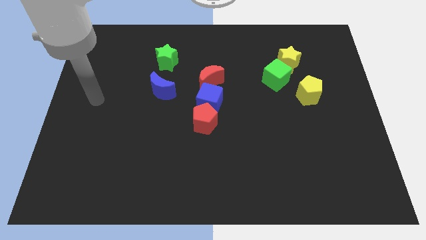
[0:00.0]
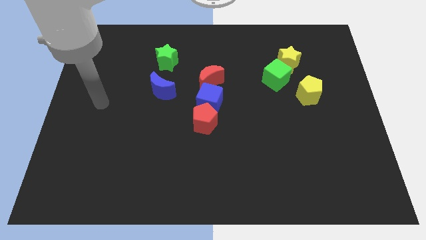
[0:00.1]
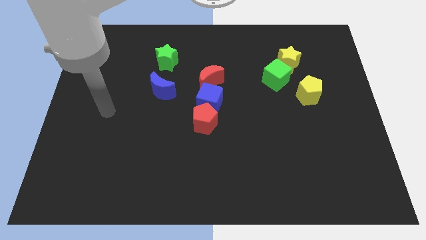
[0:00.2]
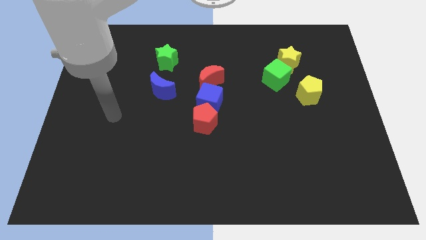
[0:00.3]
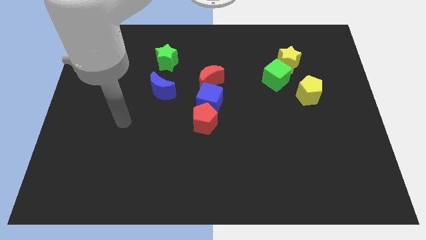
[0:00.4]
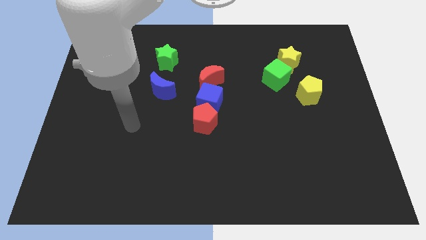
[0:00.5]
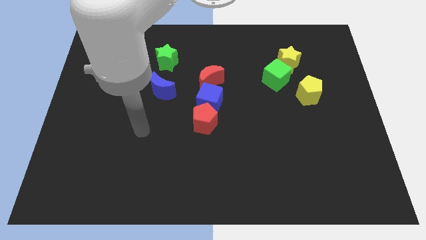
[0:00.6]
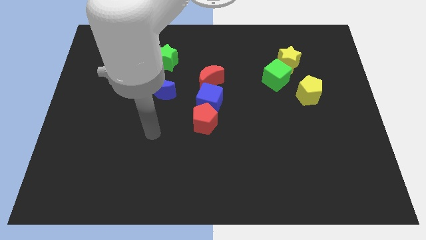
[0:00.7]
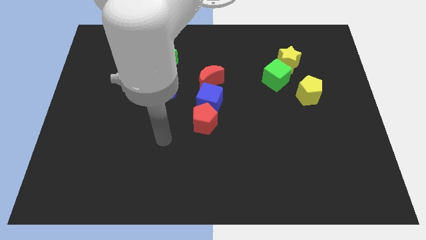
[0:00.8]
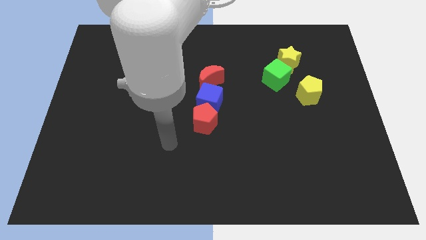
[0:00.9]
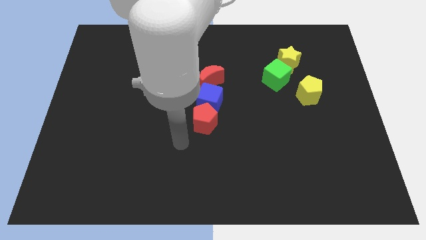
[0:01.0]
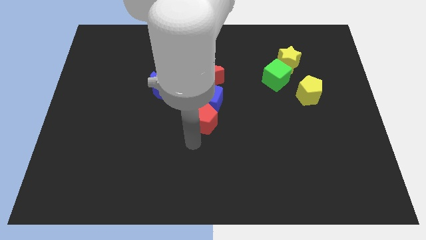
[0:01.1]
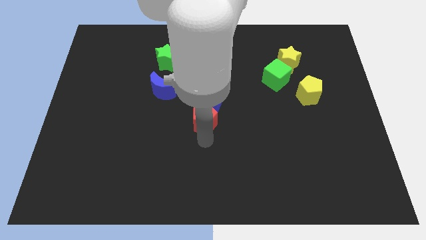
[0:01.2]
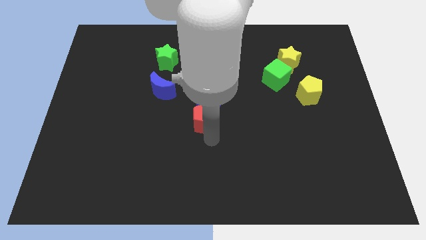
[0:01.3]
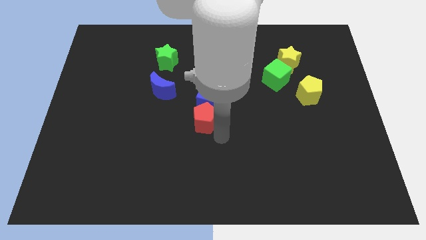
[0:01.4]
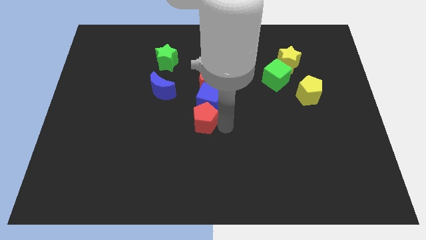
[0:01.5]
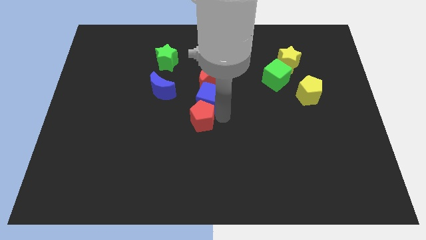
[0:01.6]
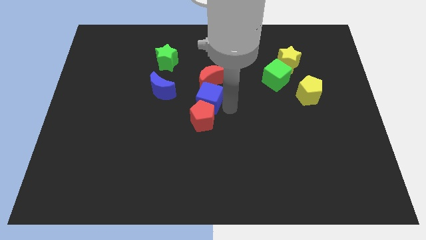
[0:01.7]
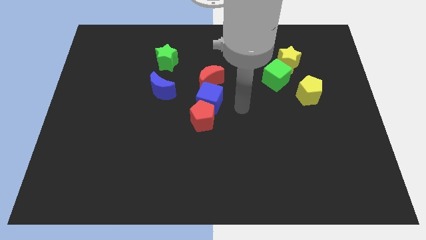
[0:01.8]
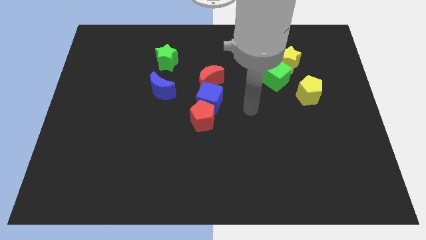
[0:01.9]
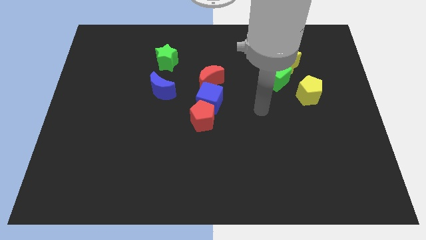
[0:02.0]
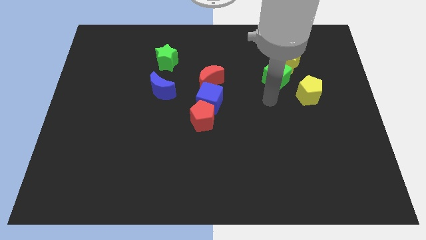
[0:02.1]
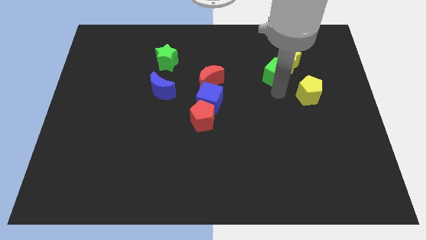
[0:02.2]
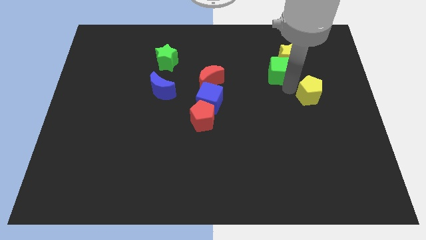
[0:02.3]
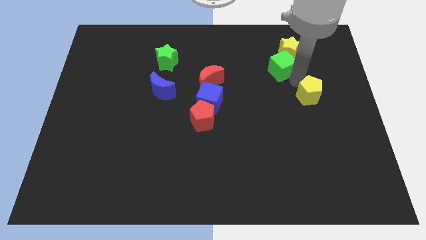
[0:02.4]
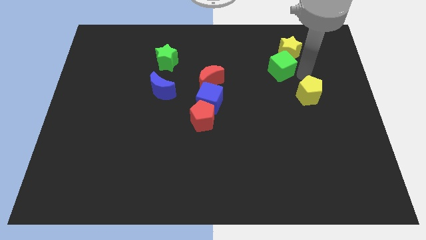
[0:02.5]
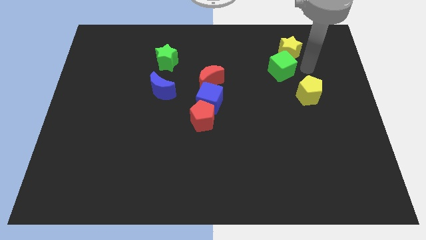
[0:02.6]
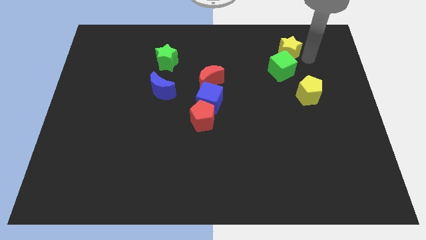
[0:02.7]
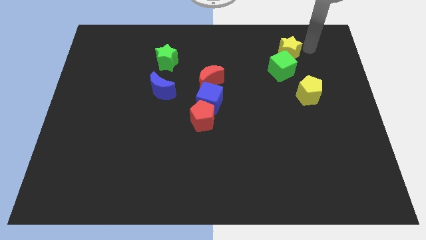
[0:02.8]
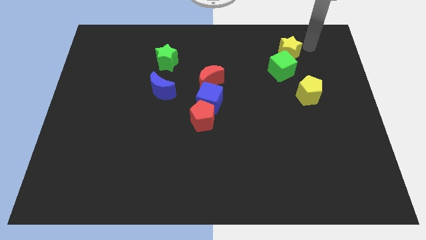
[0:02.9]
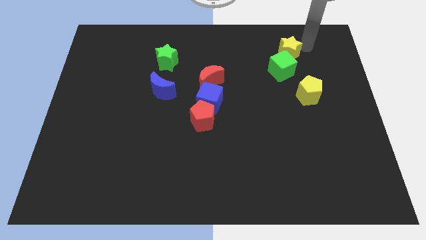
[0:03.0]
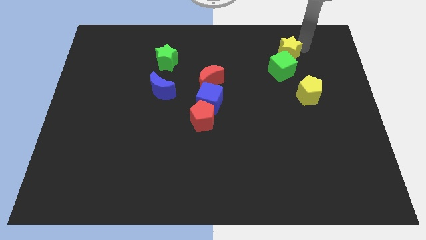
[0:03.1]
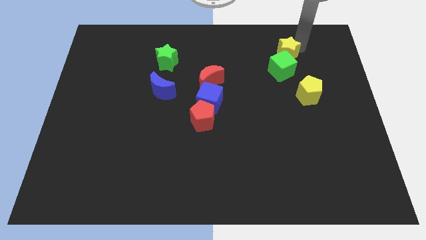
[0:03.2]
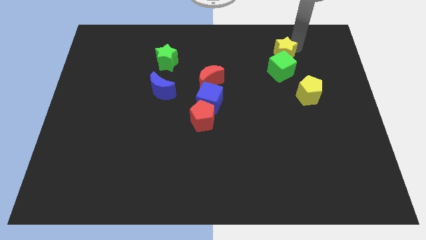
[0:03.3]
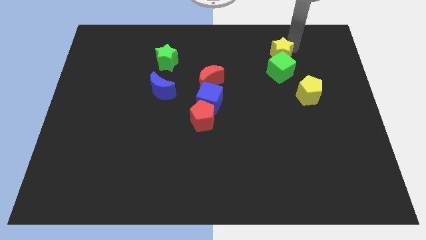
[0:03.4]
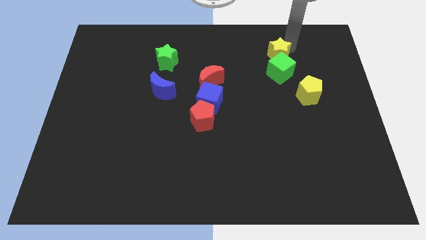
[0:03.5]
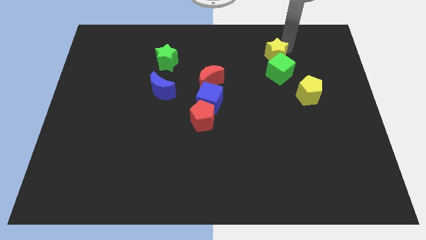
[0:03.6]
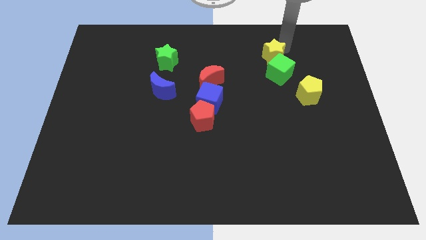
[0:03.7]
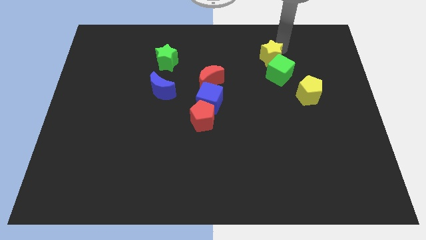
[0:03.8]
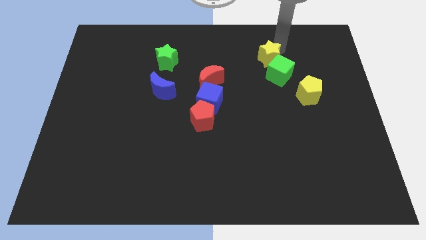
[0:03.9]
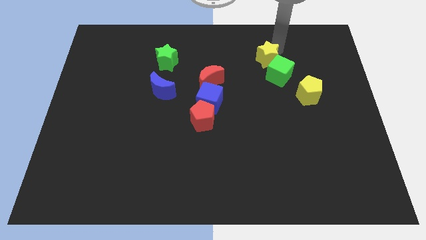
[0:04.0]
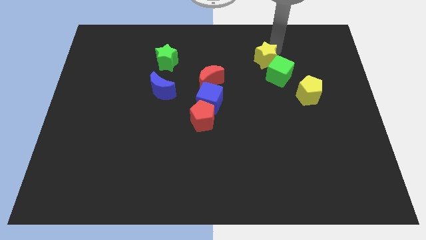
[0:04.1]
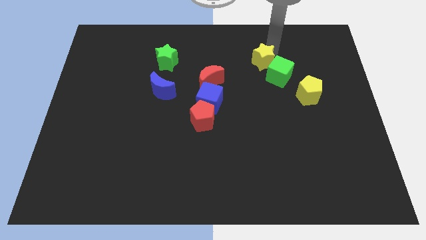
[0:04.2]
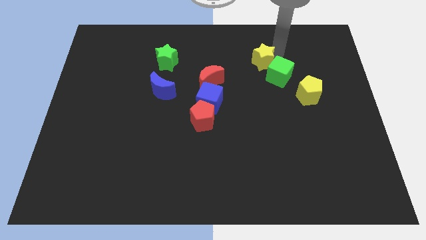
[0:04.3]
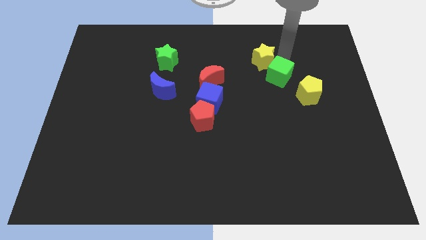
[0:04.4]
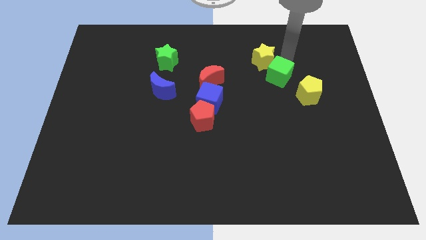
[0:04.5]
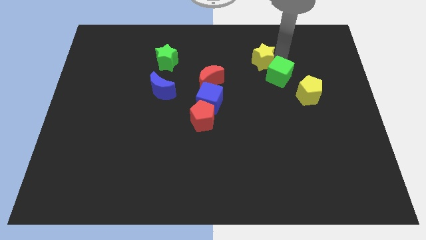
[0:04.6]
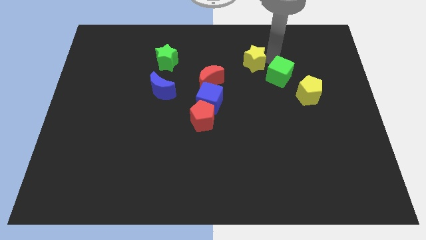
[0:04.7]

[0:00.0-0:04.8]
slightly slide the yellow star to the left

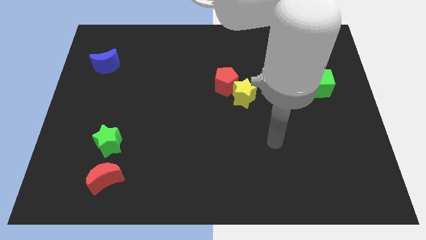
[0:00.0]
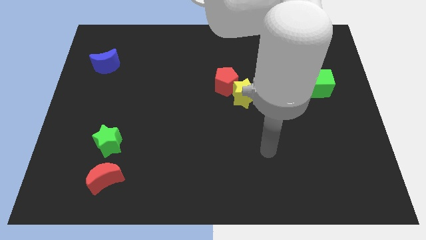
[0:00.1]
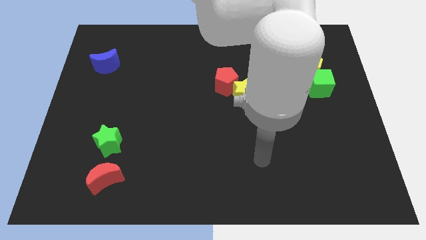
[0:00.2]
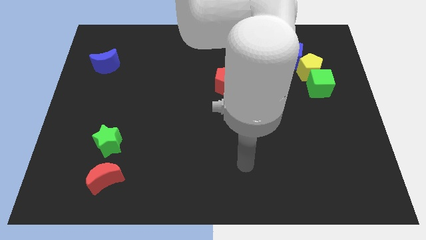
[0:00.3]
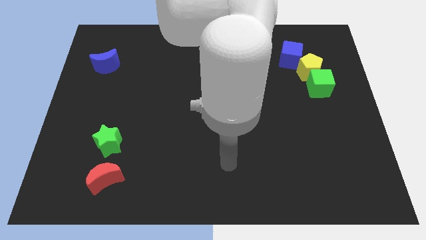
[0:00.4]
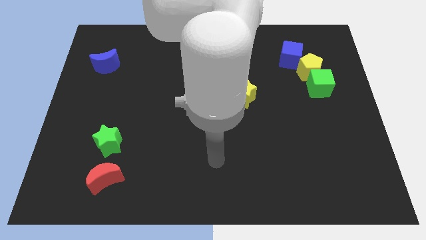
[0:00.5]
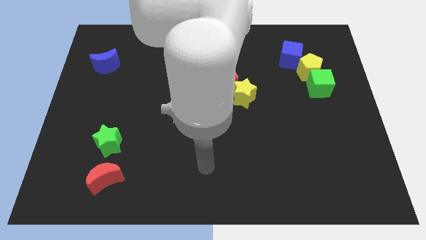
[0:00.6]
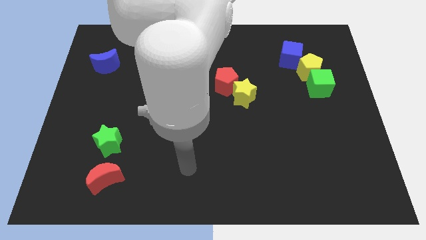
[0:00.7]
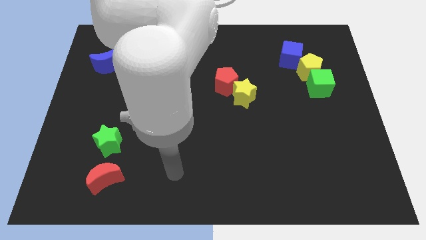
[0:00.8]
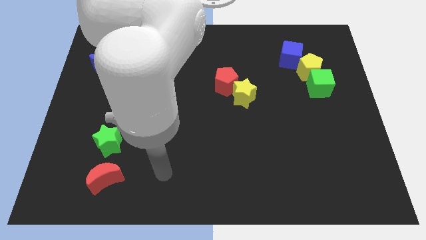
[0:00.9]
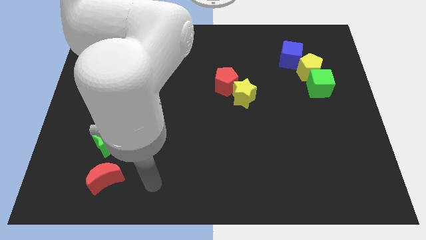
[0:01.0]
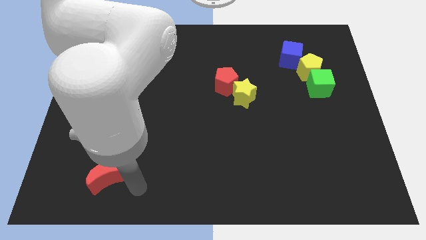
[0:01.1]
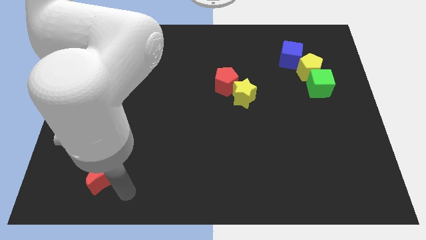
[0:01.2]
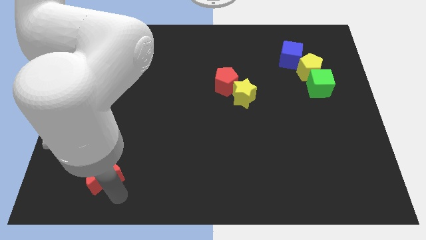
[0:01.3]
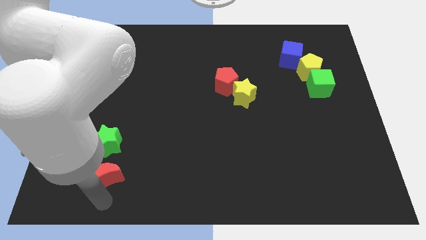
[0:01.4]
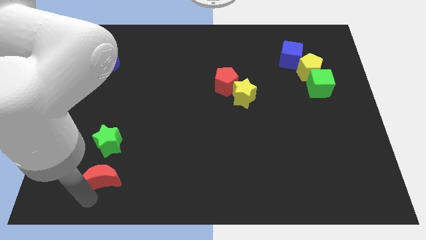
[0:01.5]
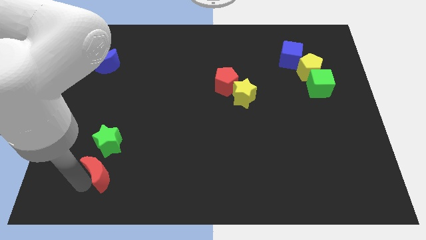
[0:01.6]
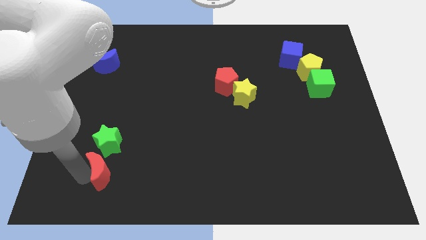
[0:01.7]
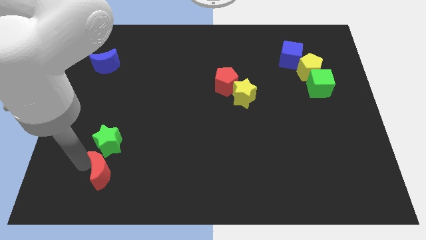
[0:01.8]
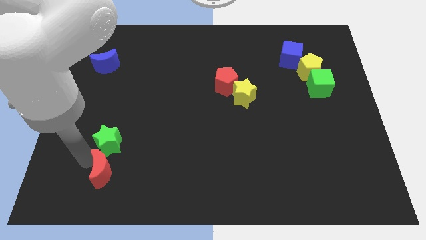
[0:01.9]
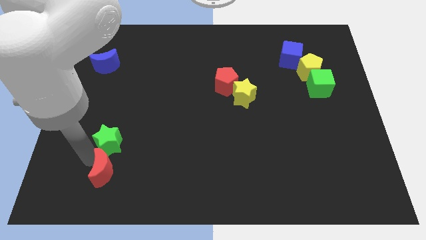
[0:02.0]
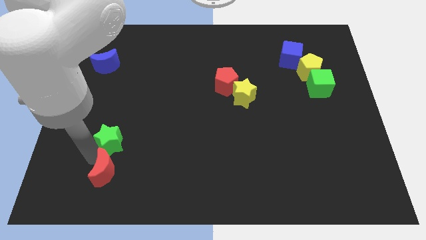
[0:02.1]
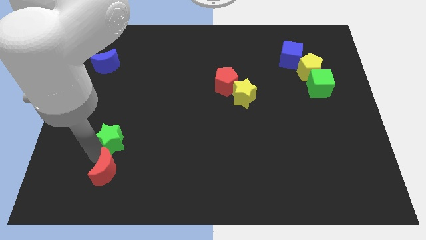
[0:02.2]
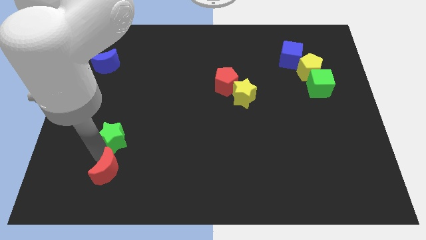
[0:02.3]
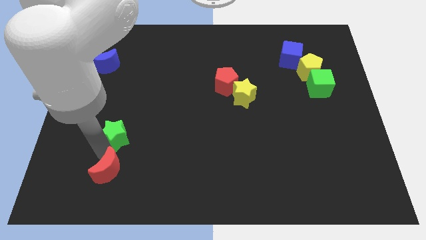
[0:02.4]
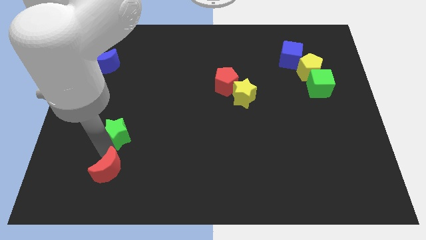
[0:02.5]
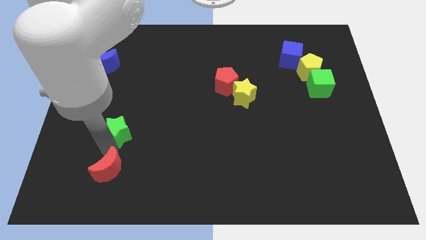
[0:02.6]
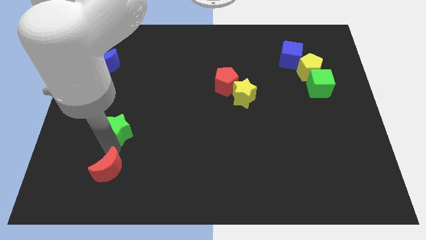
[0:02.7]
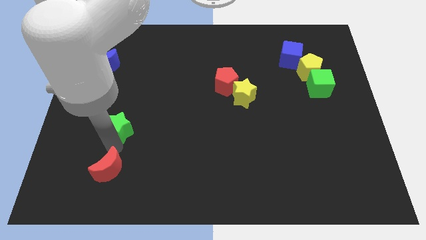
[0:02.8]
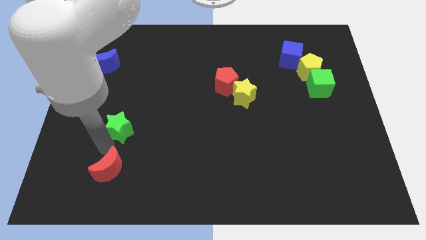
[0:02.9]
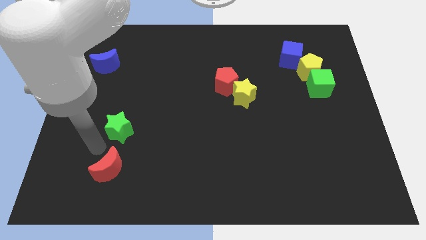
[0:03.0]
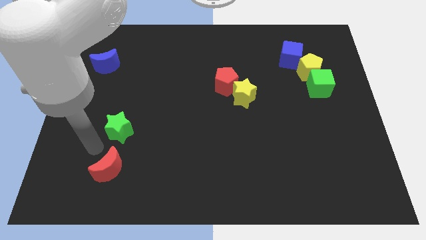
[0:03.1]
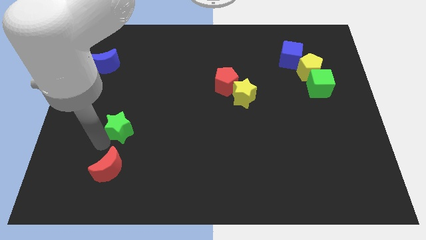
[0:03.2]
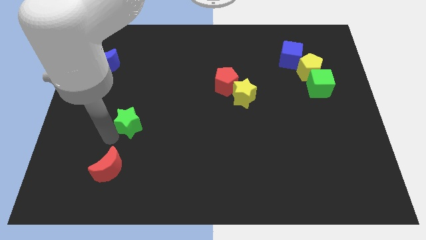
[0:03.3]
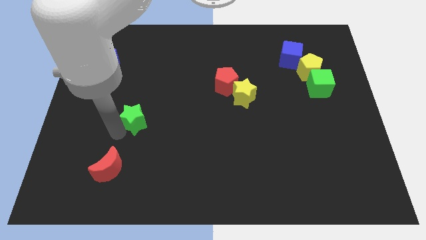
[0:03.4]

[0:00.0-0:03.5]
slightly push the green star up and right diagonally

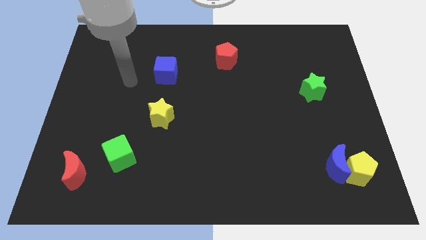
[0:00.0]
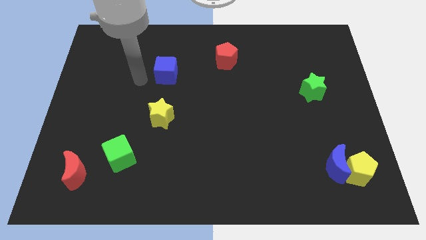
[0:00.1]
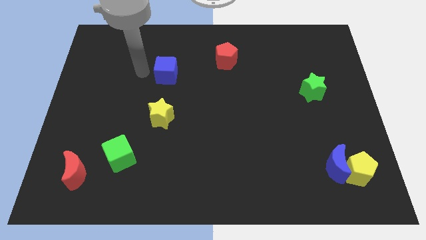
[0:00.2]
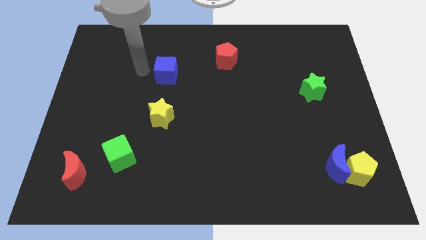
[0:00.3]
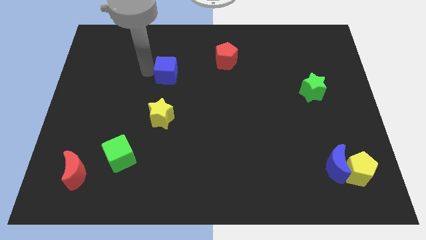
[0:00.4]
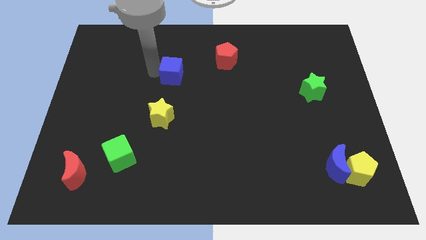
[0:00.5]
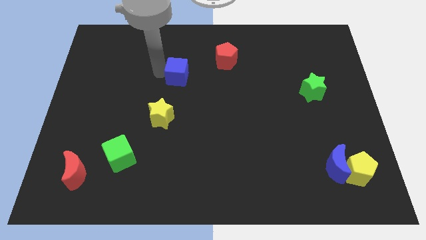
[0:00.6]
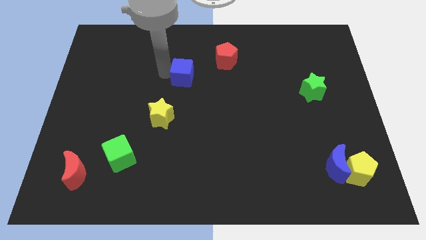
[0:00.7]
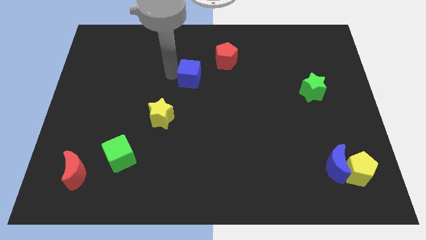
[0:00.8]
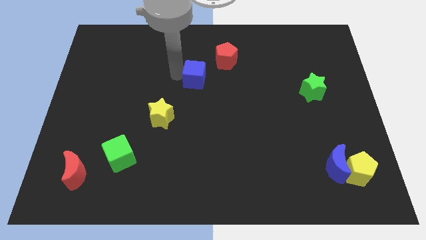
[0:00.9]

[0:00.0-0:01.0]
move the blue cube to the right slightly
